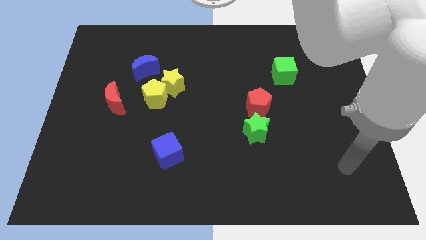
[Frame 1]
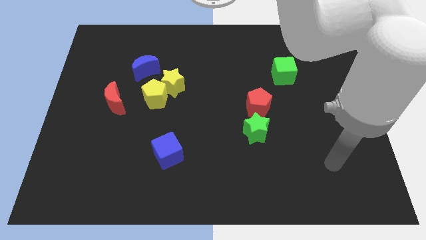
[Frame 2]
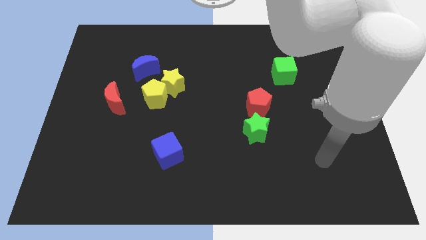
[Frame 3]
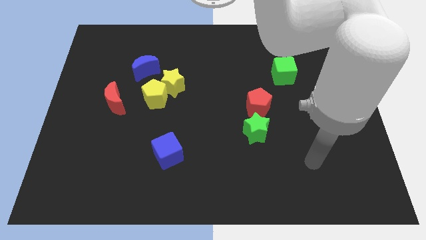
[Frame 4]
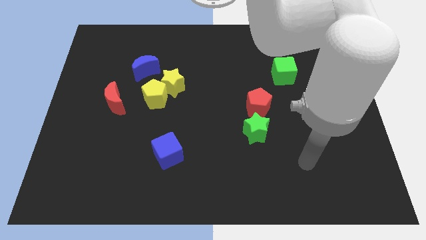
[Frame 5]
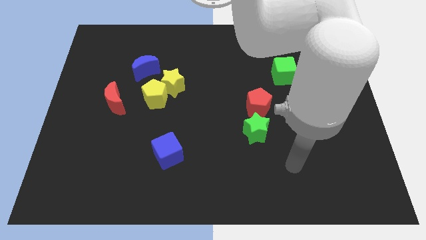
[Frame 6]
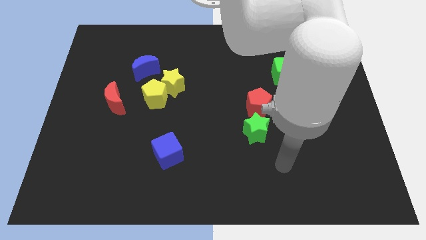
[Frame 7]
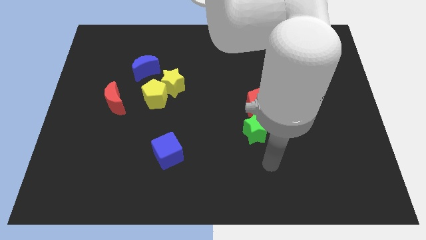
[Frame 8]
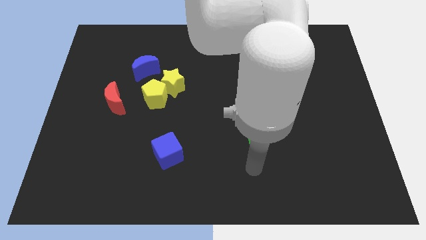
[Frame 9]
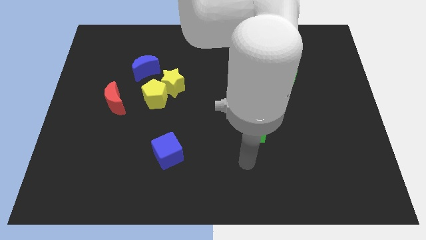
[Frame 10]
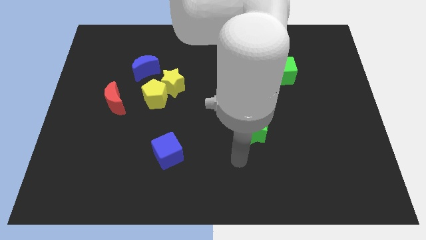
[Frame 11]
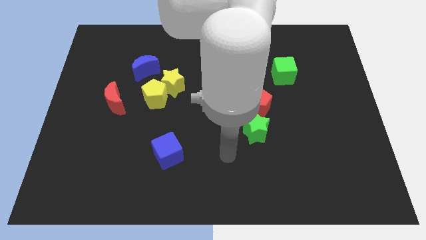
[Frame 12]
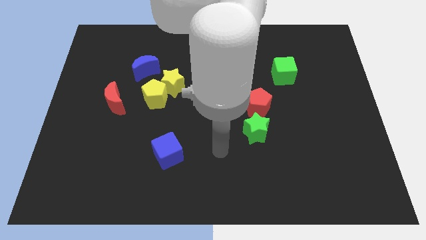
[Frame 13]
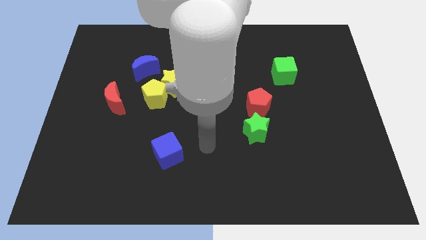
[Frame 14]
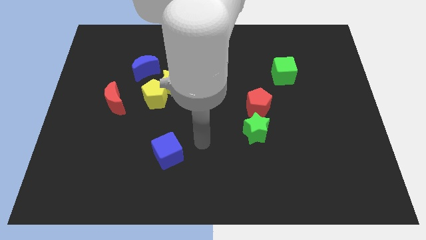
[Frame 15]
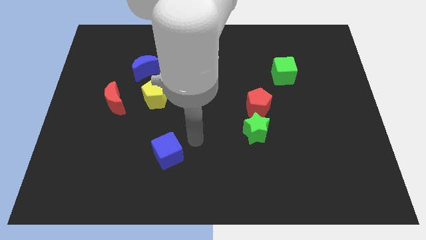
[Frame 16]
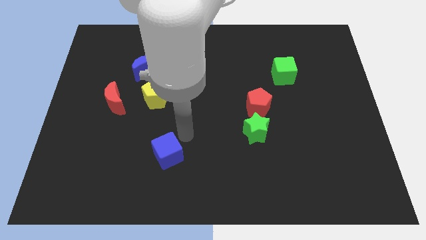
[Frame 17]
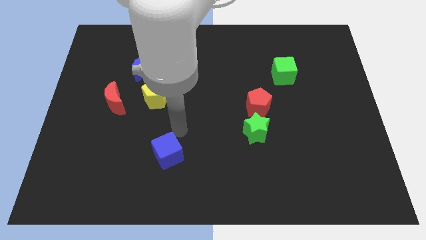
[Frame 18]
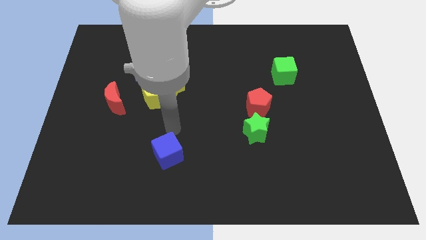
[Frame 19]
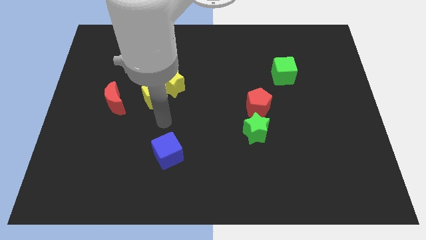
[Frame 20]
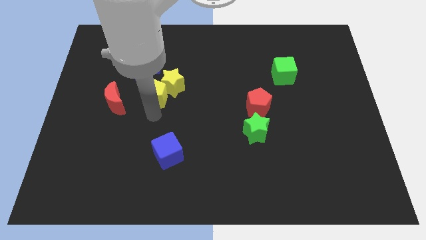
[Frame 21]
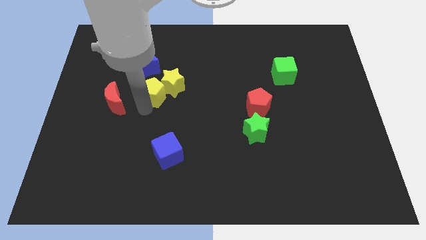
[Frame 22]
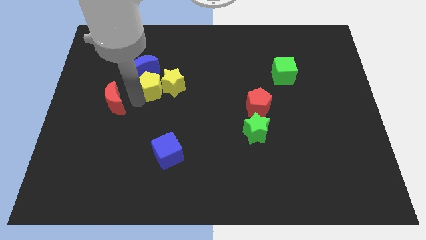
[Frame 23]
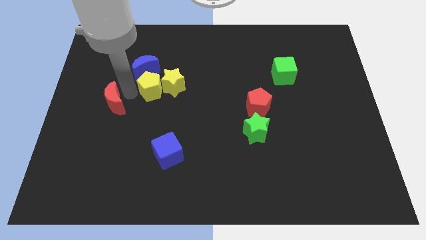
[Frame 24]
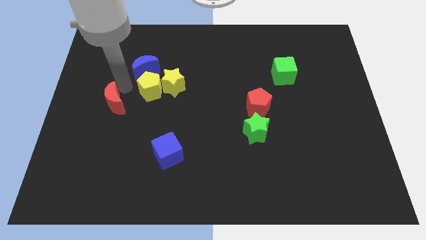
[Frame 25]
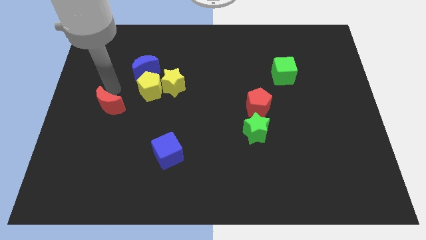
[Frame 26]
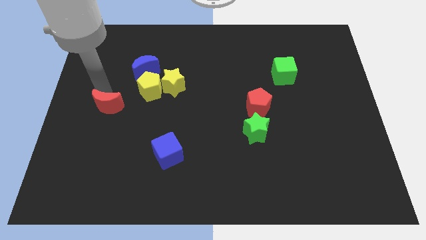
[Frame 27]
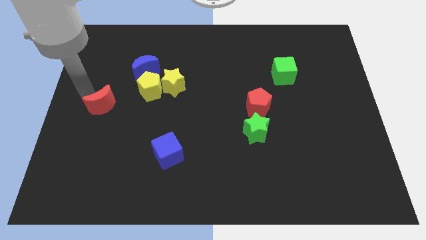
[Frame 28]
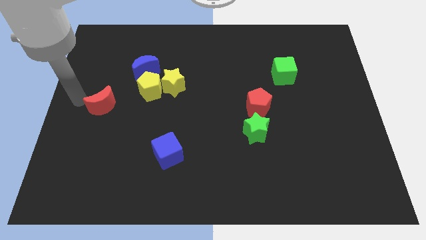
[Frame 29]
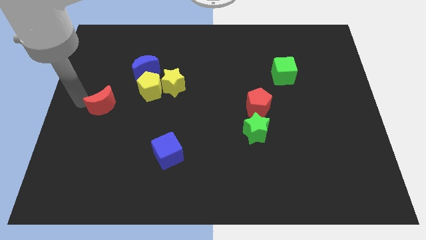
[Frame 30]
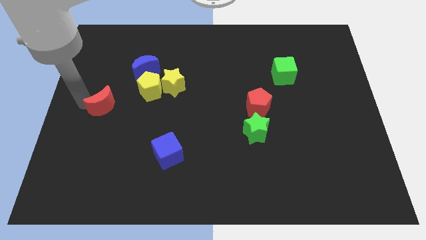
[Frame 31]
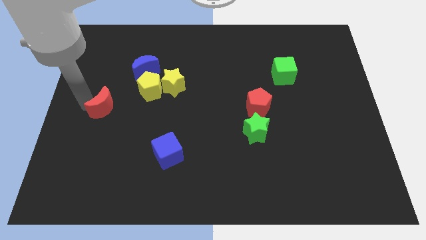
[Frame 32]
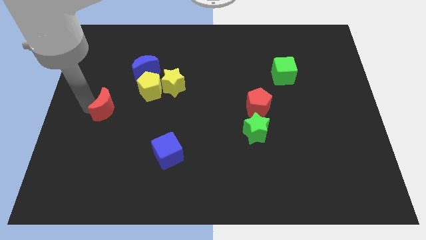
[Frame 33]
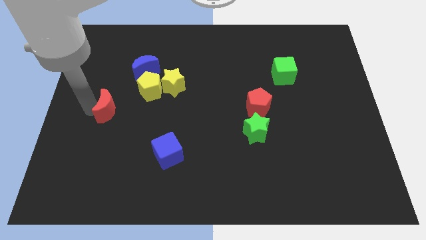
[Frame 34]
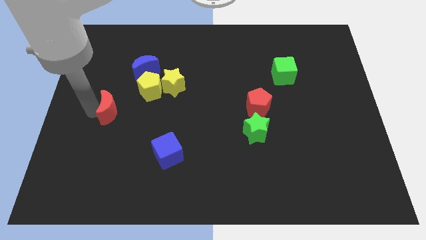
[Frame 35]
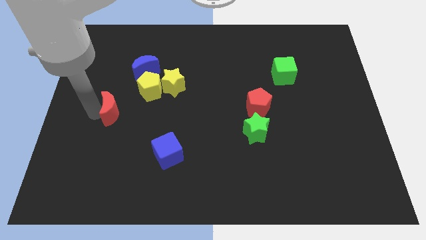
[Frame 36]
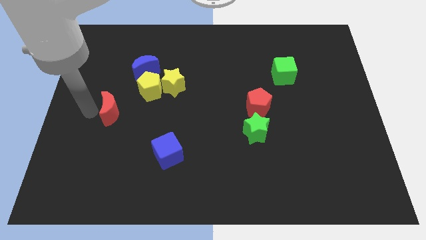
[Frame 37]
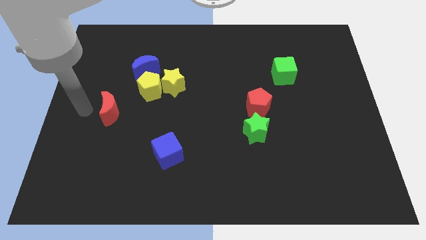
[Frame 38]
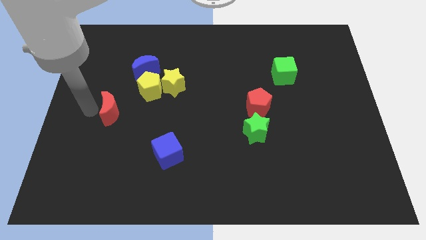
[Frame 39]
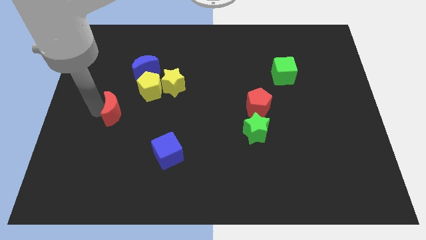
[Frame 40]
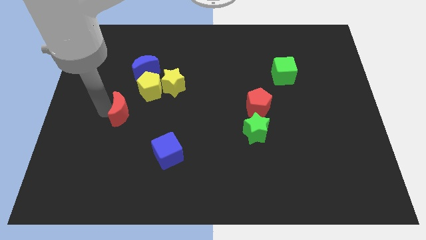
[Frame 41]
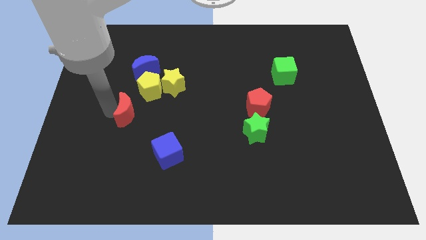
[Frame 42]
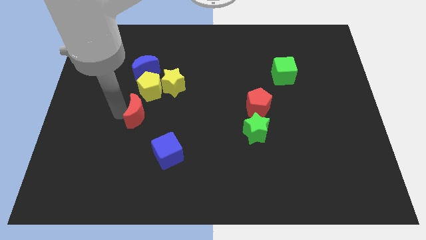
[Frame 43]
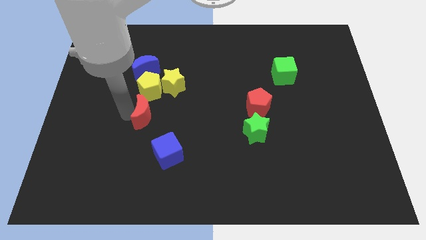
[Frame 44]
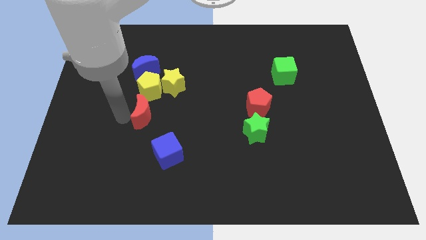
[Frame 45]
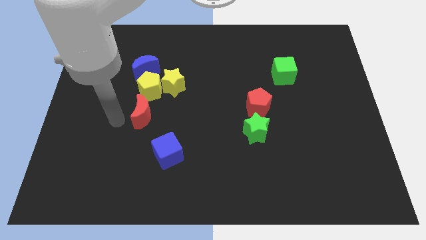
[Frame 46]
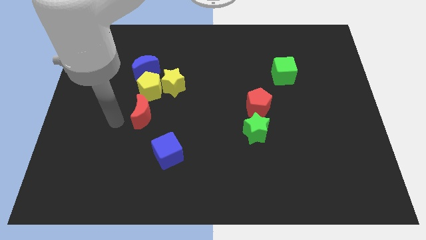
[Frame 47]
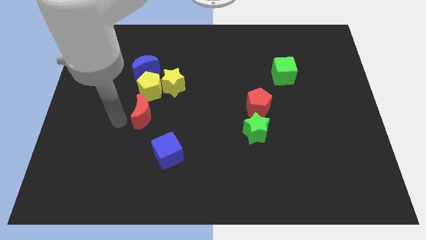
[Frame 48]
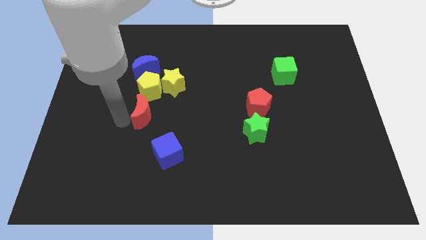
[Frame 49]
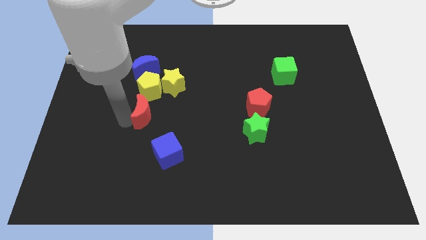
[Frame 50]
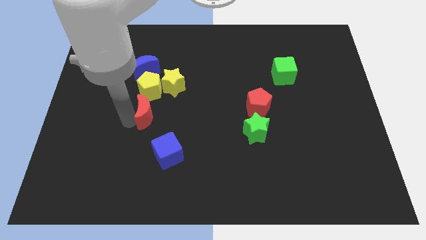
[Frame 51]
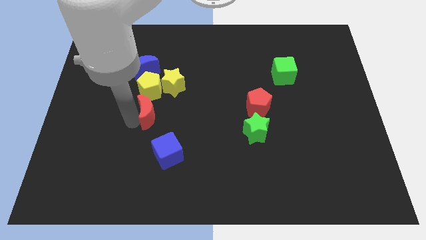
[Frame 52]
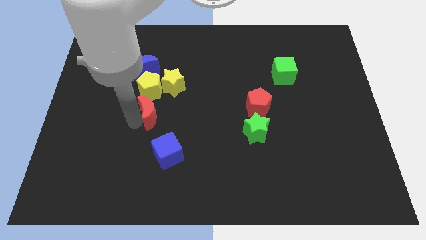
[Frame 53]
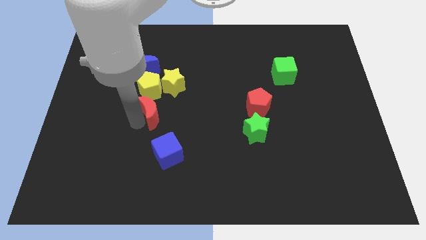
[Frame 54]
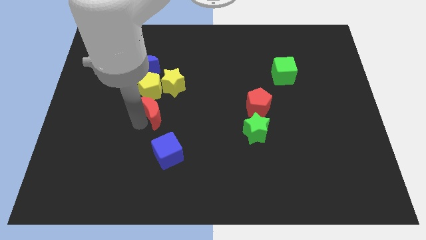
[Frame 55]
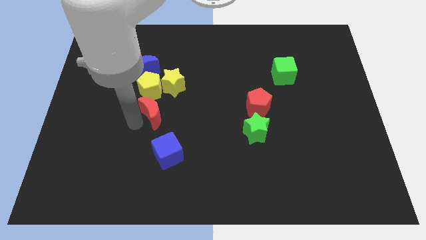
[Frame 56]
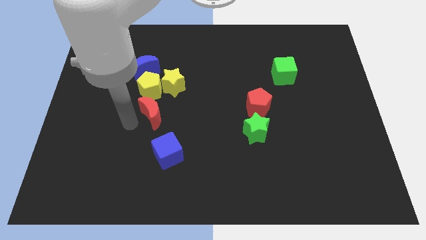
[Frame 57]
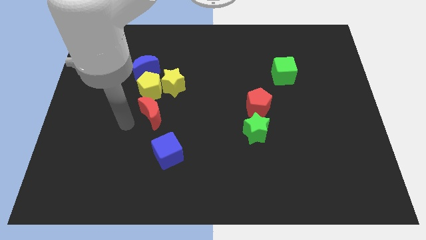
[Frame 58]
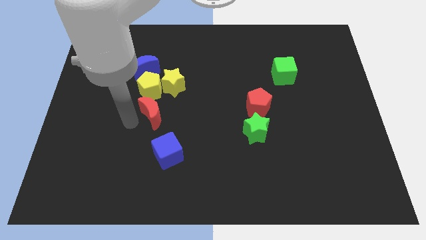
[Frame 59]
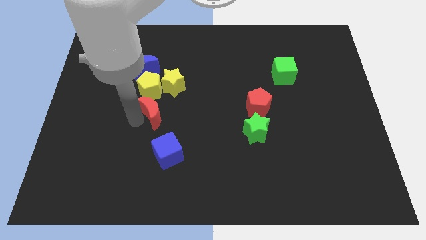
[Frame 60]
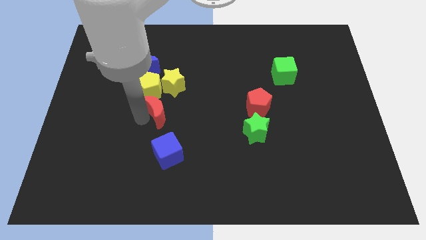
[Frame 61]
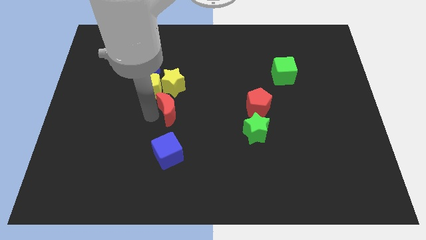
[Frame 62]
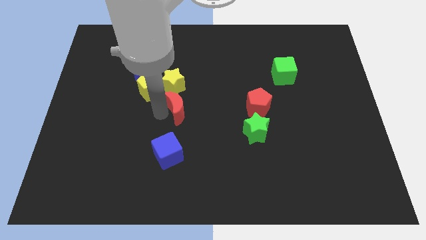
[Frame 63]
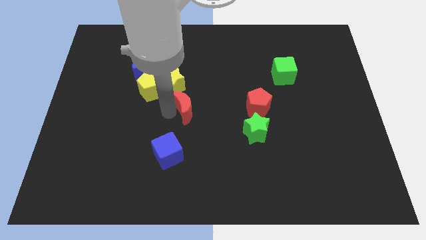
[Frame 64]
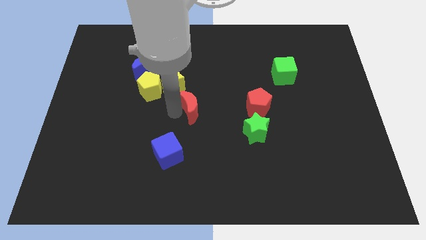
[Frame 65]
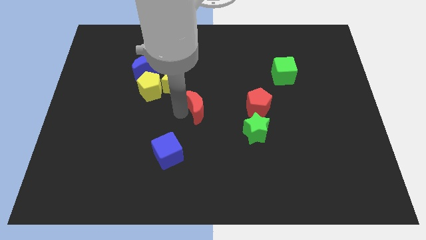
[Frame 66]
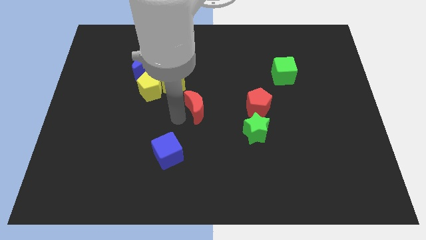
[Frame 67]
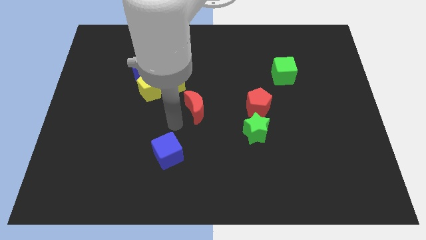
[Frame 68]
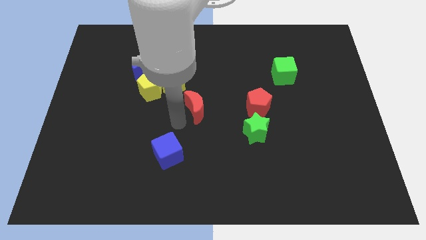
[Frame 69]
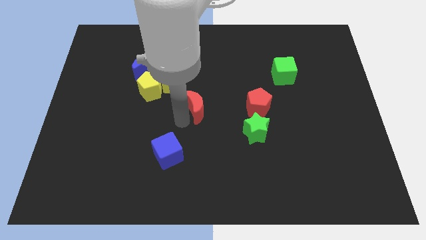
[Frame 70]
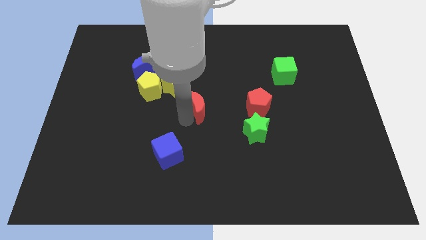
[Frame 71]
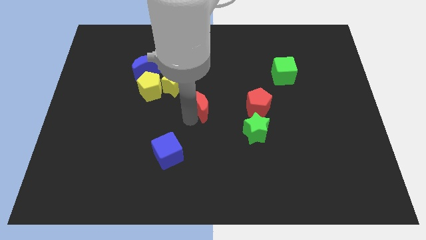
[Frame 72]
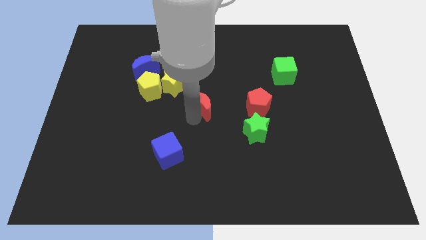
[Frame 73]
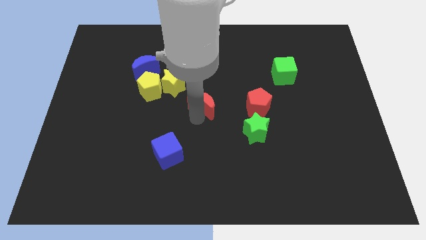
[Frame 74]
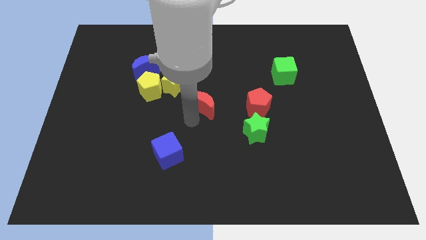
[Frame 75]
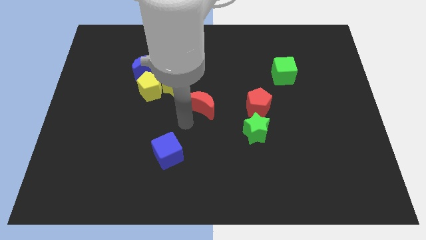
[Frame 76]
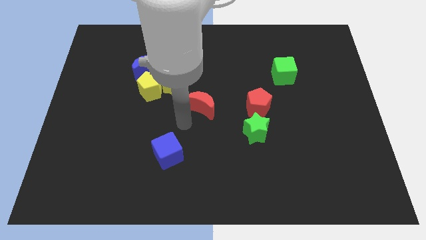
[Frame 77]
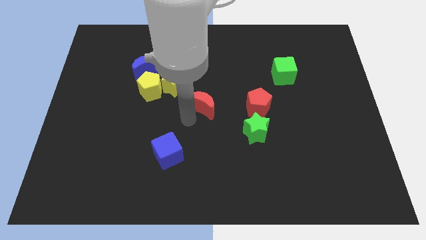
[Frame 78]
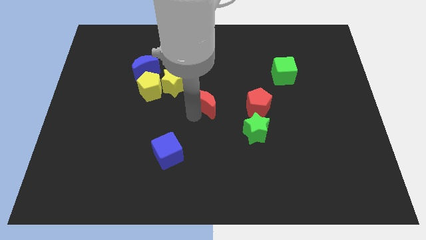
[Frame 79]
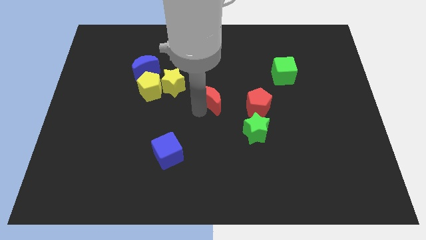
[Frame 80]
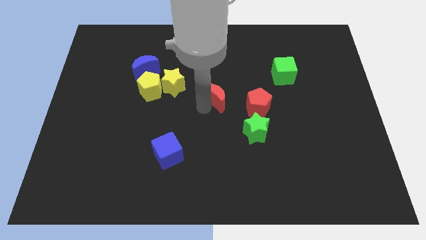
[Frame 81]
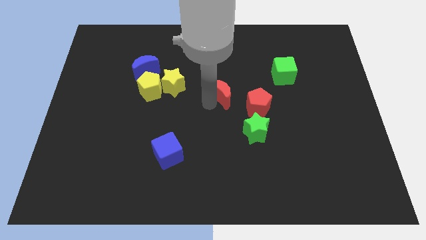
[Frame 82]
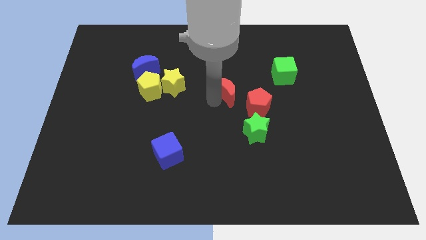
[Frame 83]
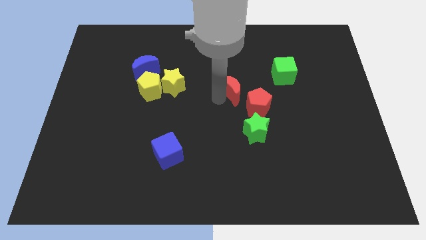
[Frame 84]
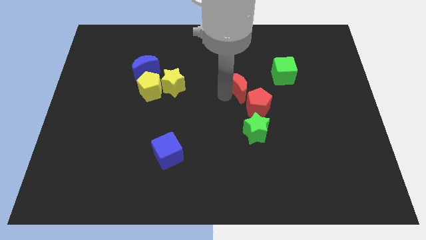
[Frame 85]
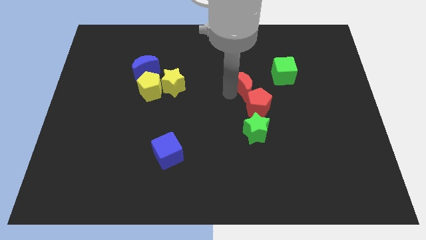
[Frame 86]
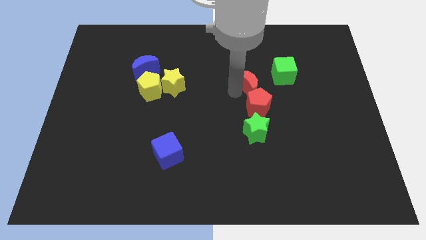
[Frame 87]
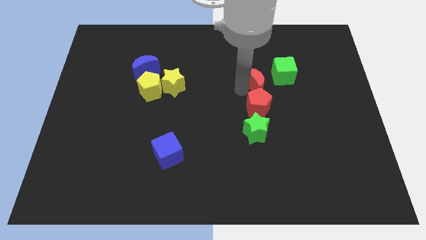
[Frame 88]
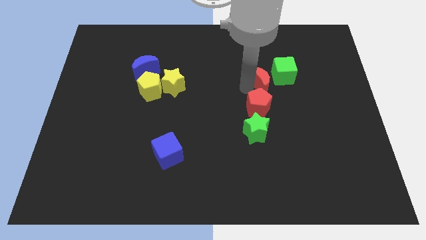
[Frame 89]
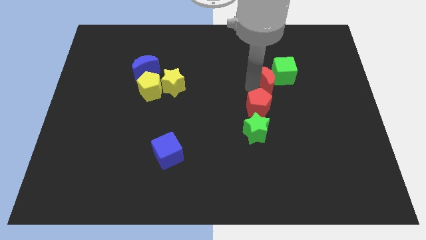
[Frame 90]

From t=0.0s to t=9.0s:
put the red moon to the green cube
